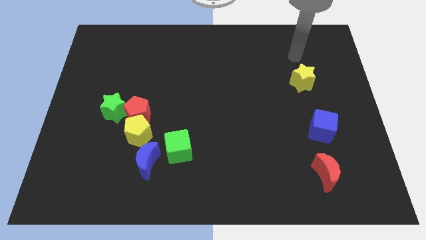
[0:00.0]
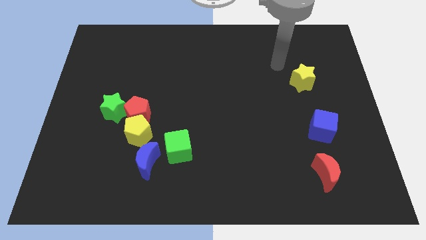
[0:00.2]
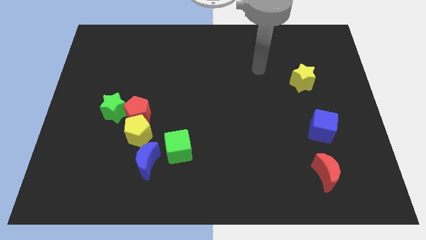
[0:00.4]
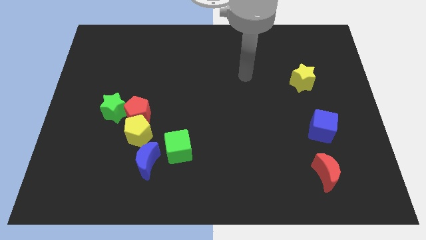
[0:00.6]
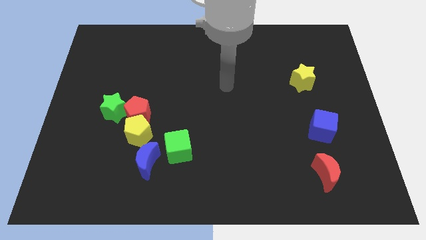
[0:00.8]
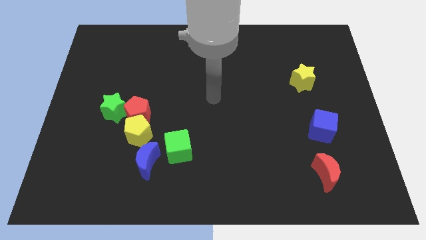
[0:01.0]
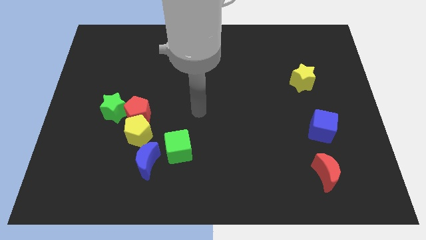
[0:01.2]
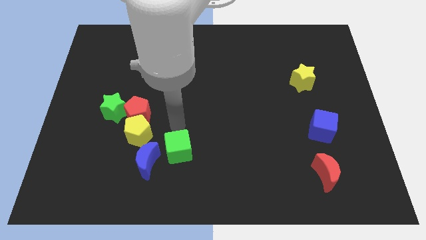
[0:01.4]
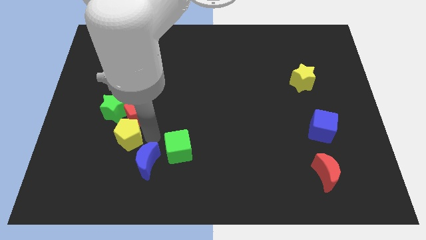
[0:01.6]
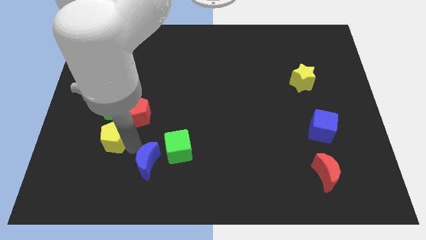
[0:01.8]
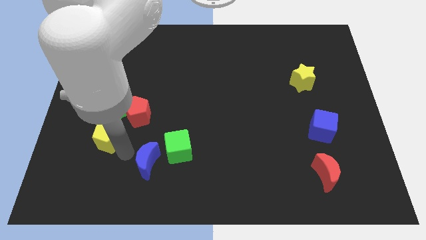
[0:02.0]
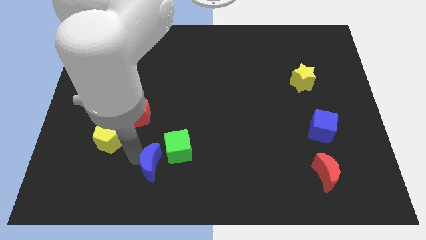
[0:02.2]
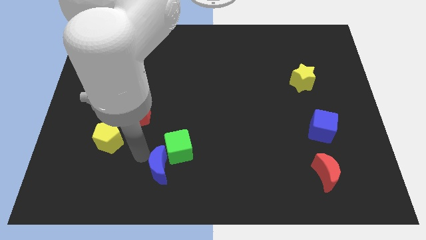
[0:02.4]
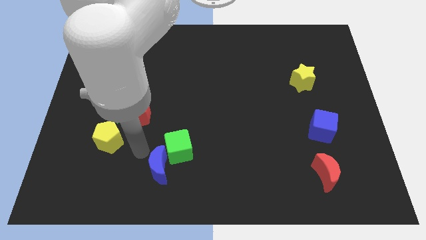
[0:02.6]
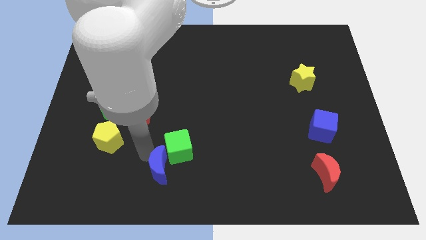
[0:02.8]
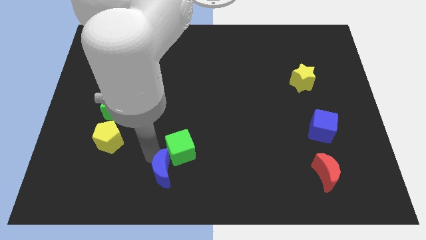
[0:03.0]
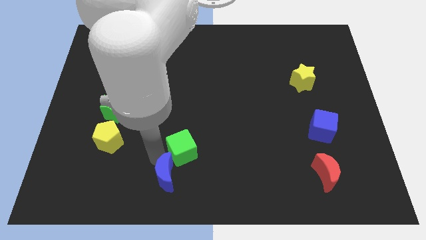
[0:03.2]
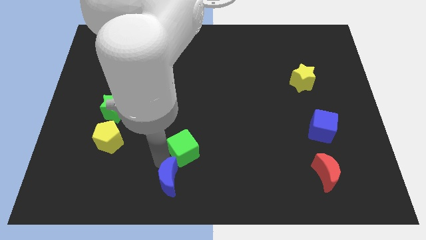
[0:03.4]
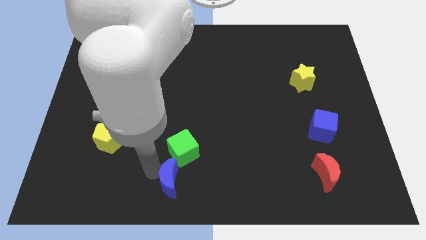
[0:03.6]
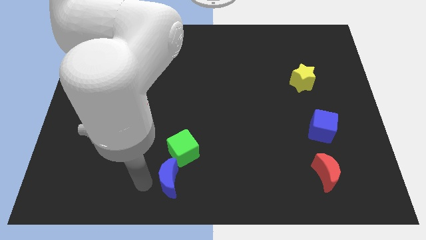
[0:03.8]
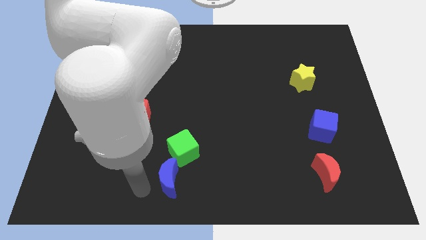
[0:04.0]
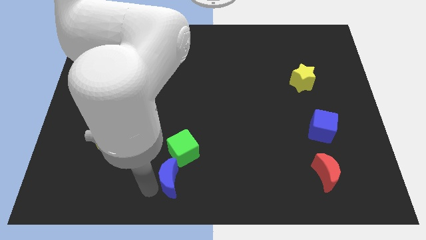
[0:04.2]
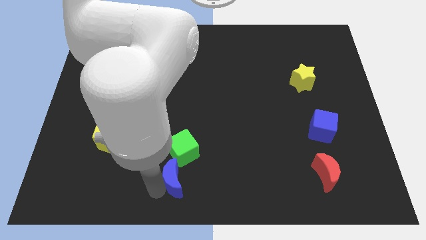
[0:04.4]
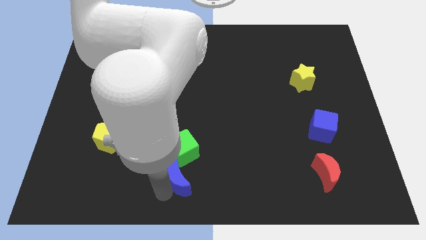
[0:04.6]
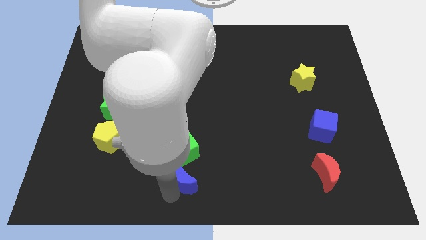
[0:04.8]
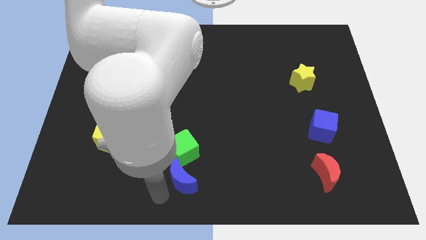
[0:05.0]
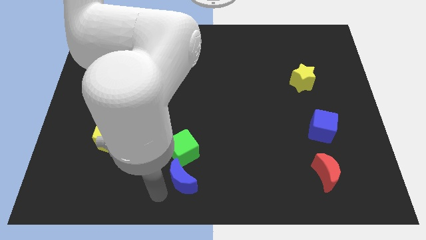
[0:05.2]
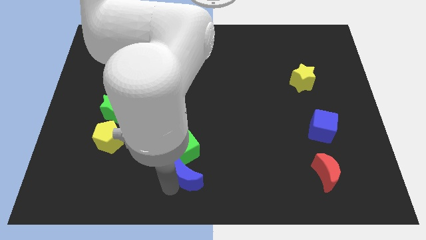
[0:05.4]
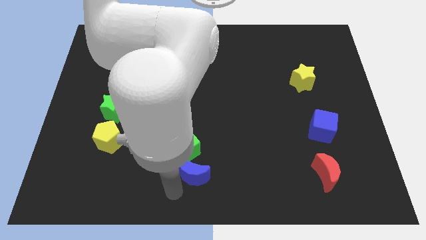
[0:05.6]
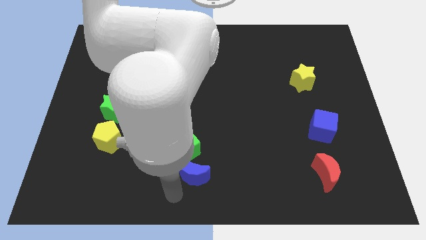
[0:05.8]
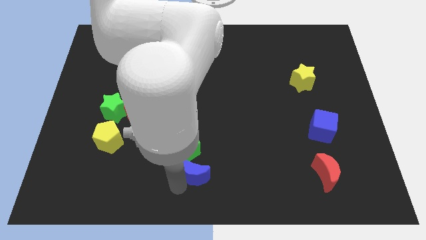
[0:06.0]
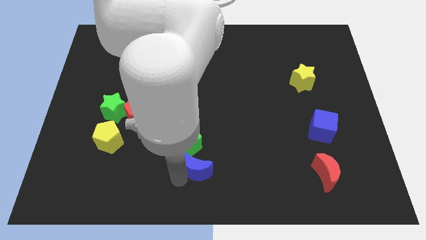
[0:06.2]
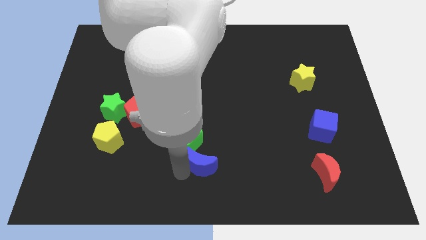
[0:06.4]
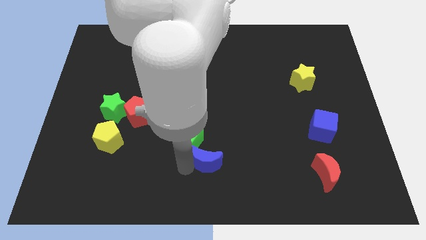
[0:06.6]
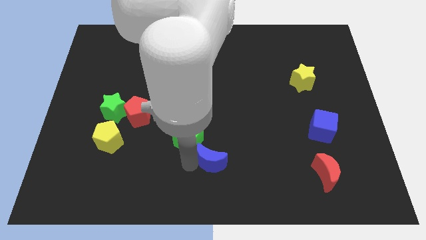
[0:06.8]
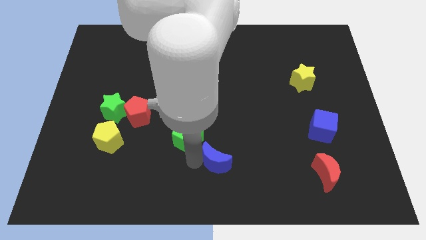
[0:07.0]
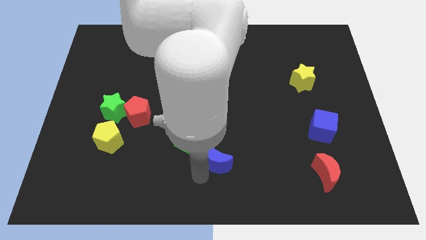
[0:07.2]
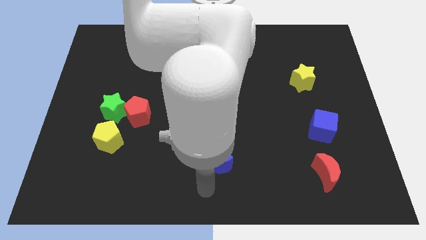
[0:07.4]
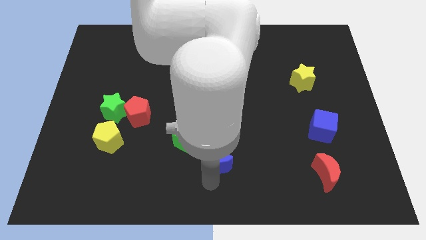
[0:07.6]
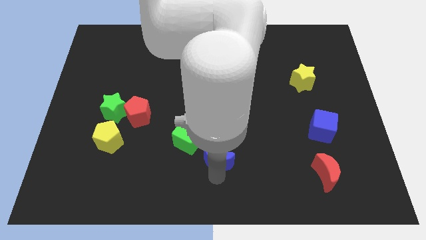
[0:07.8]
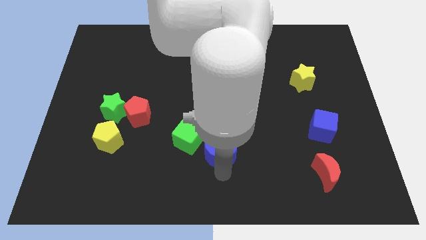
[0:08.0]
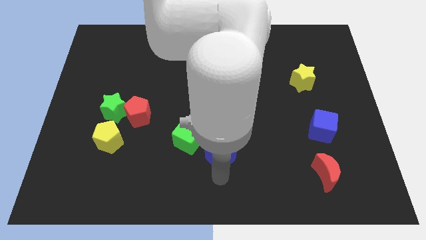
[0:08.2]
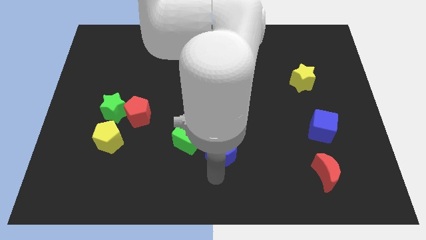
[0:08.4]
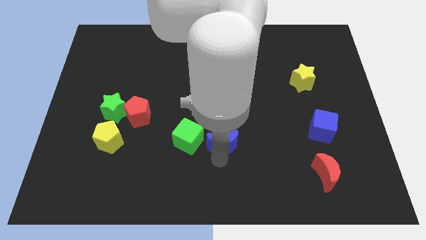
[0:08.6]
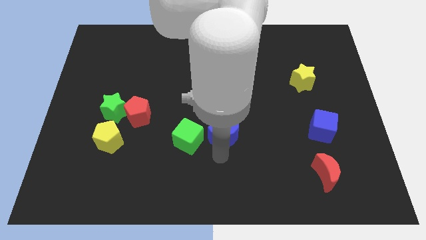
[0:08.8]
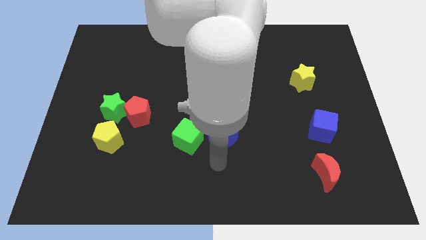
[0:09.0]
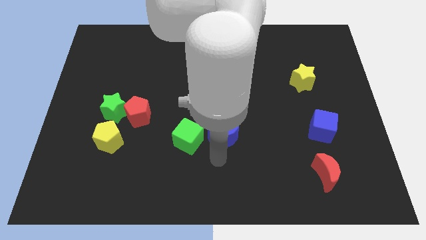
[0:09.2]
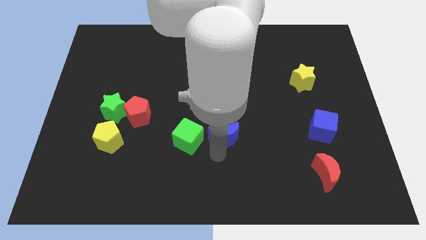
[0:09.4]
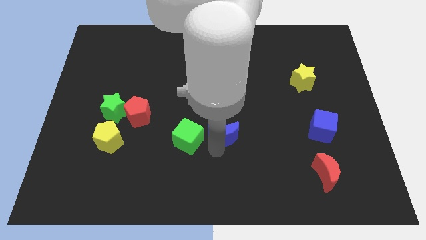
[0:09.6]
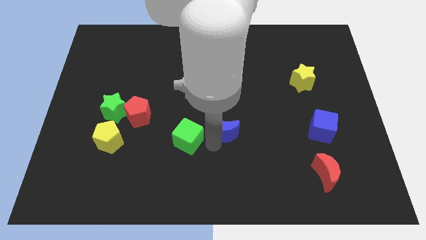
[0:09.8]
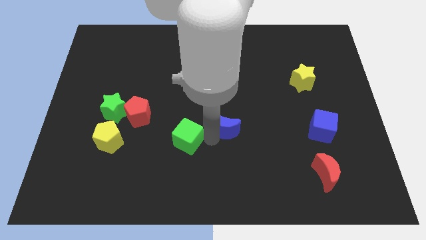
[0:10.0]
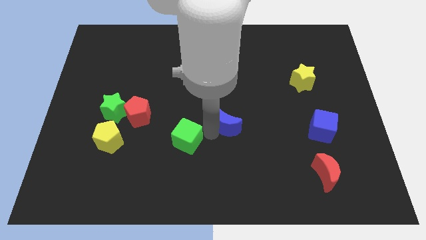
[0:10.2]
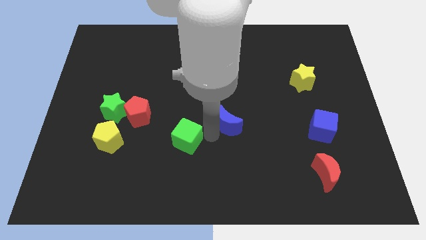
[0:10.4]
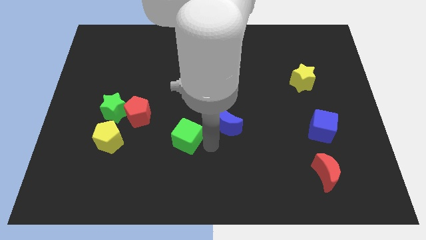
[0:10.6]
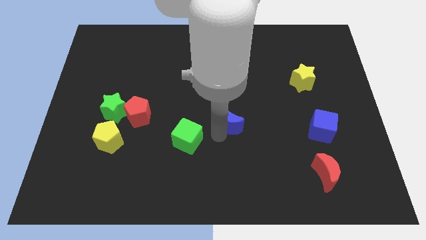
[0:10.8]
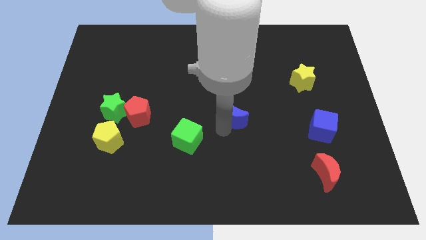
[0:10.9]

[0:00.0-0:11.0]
push the blue moon diagonally up and to the right

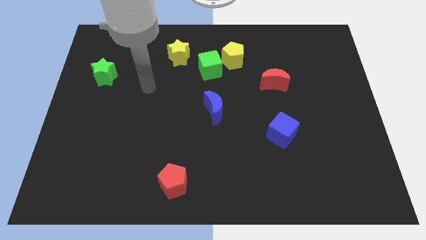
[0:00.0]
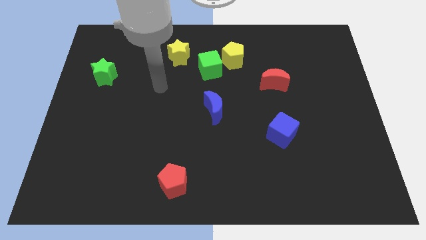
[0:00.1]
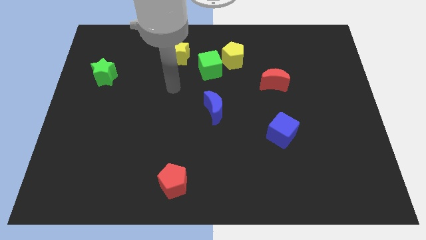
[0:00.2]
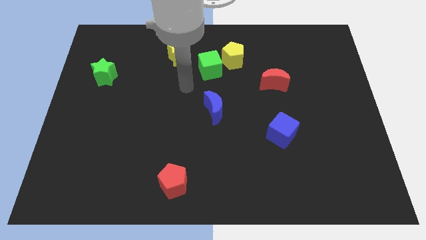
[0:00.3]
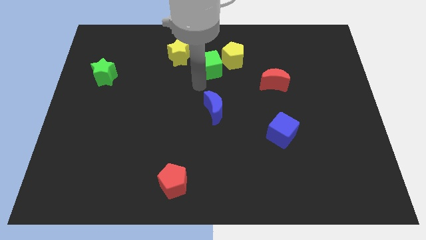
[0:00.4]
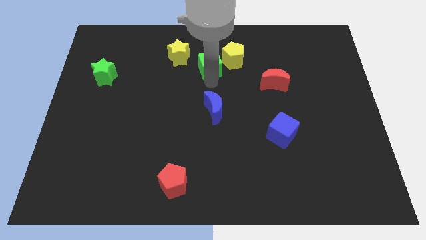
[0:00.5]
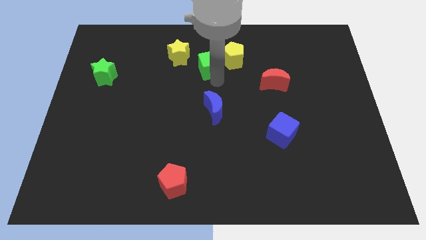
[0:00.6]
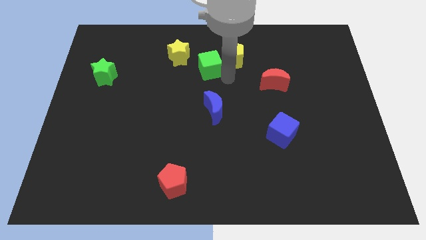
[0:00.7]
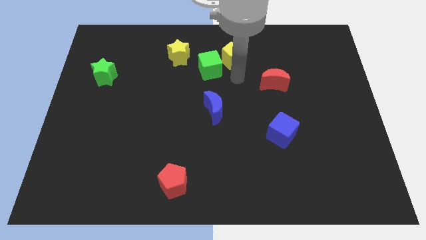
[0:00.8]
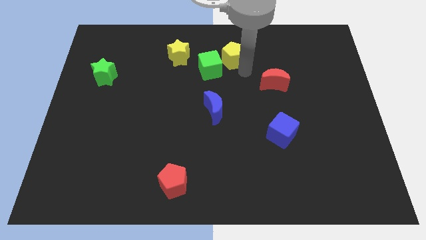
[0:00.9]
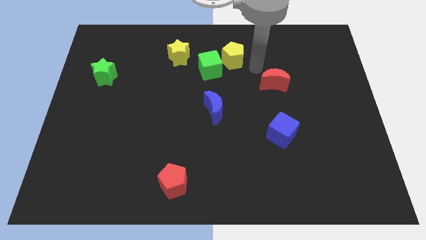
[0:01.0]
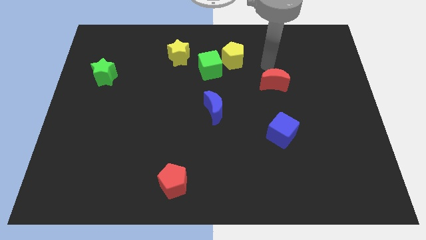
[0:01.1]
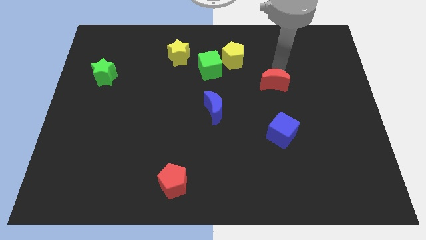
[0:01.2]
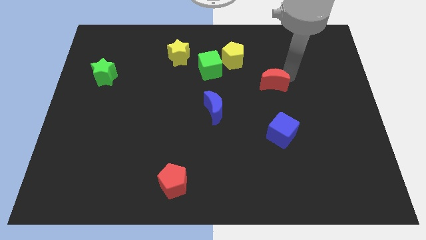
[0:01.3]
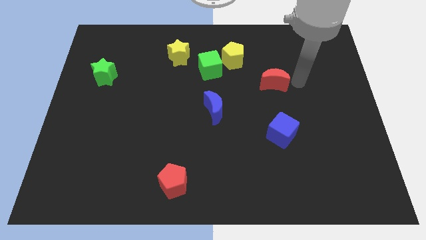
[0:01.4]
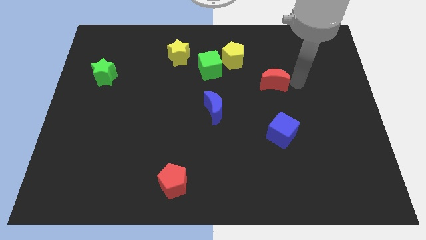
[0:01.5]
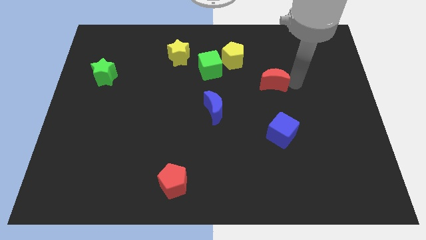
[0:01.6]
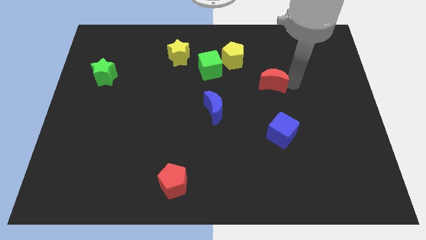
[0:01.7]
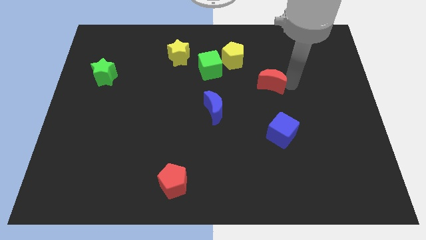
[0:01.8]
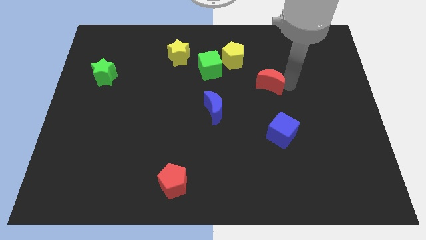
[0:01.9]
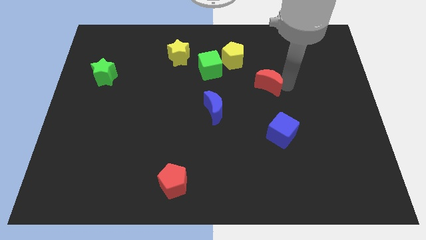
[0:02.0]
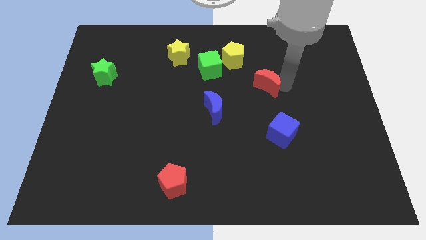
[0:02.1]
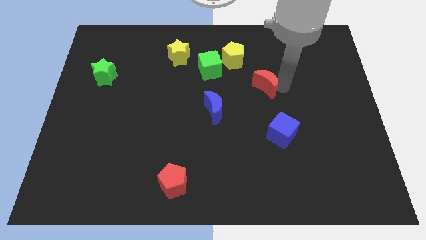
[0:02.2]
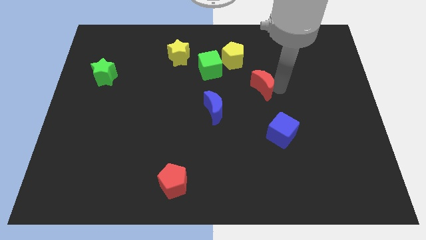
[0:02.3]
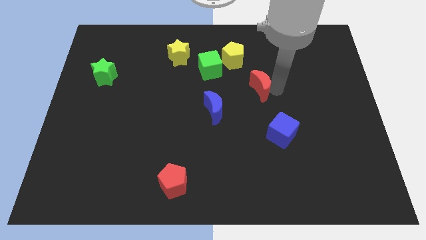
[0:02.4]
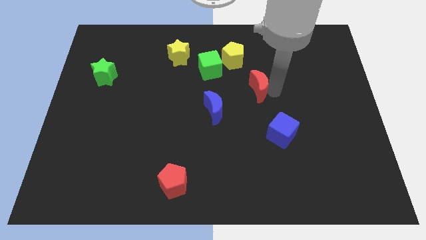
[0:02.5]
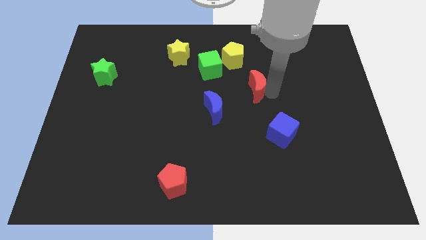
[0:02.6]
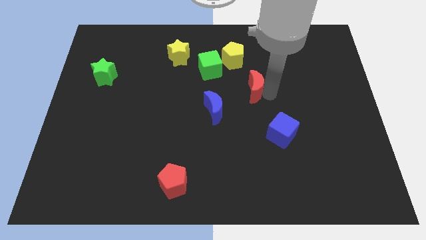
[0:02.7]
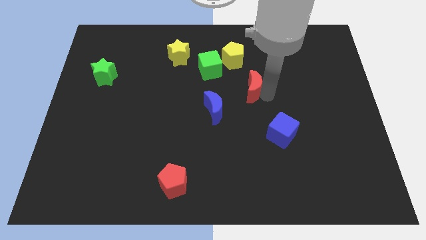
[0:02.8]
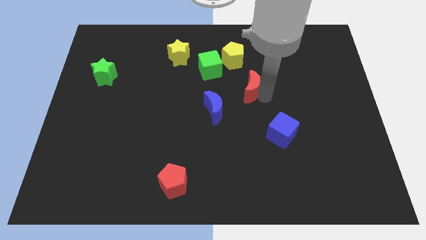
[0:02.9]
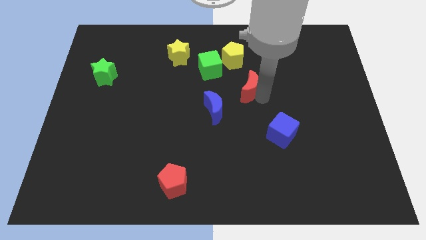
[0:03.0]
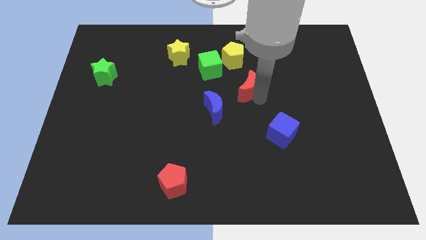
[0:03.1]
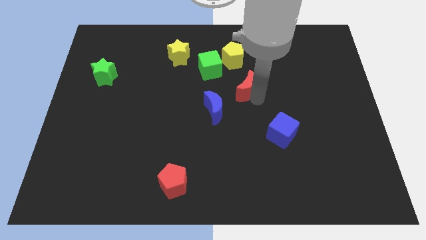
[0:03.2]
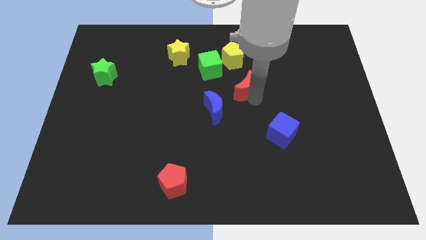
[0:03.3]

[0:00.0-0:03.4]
slightly slide the red moon left
